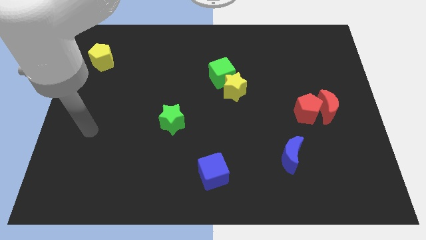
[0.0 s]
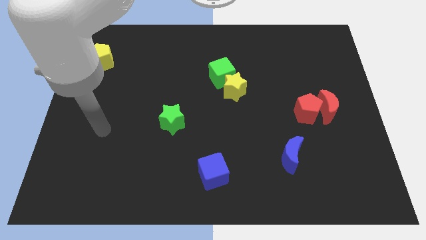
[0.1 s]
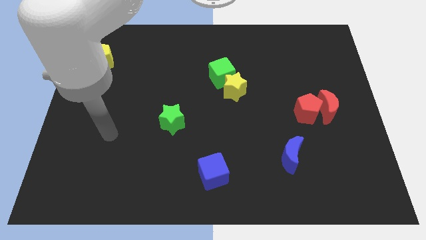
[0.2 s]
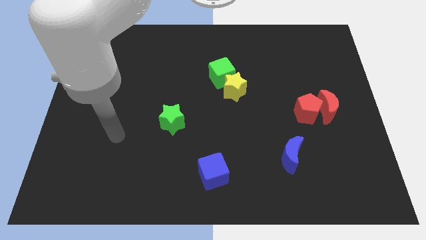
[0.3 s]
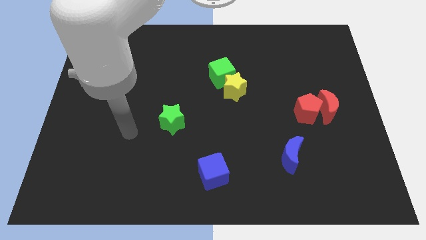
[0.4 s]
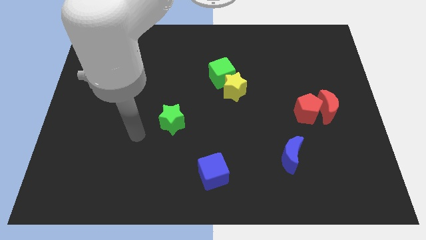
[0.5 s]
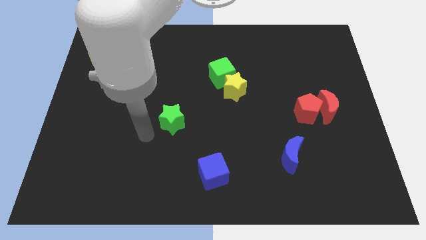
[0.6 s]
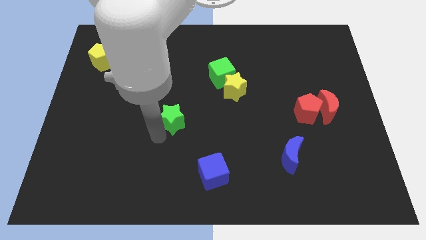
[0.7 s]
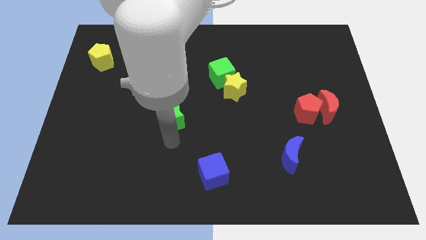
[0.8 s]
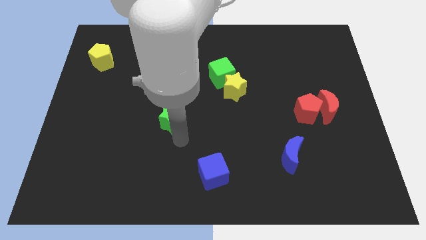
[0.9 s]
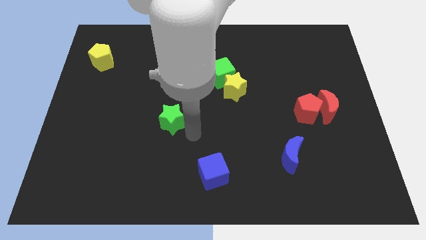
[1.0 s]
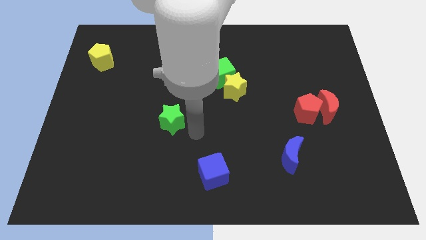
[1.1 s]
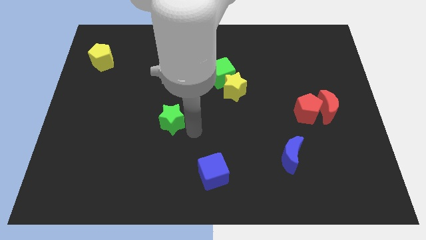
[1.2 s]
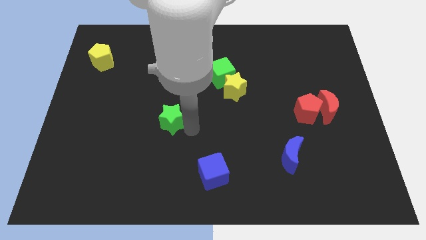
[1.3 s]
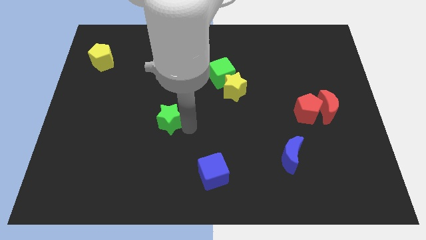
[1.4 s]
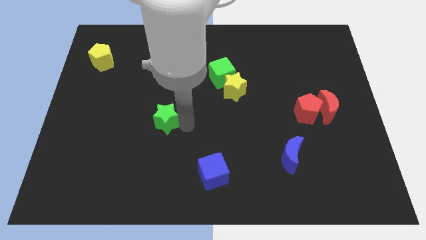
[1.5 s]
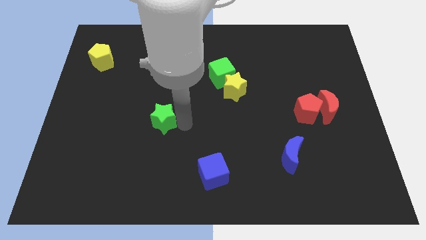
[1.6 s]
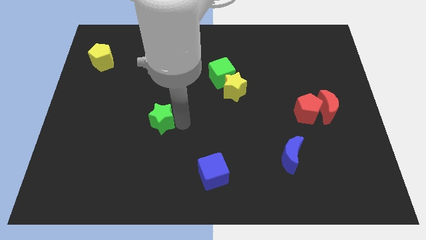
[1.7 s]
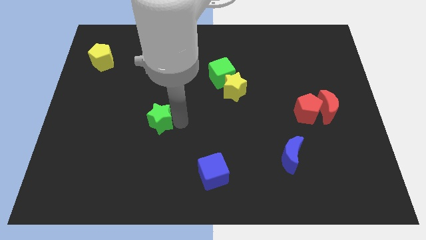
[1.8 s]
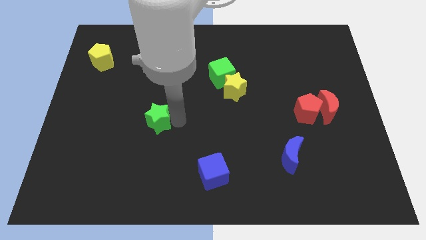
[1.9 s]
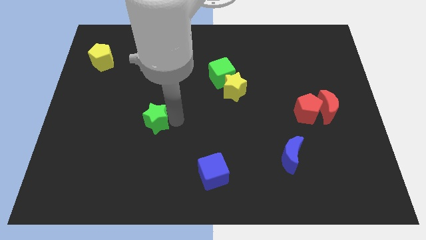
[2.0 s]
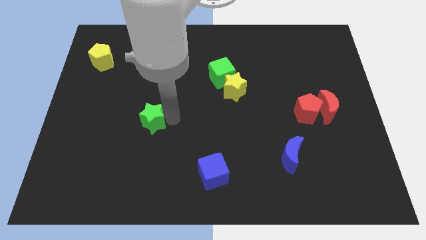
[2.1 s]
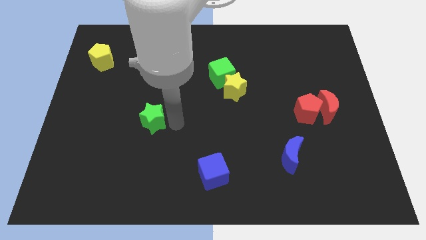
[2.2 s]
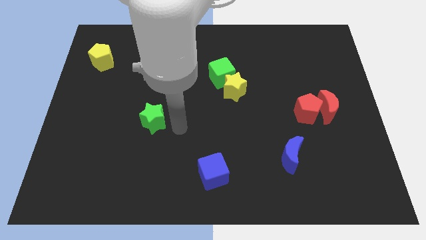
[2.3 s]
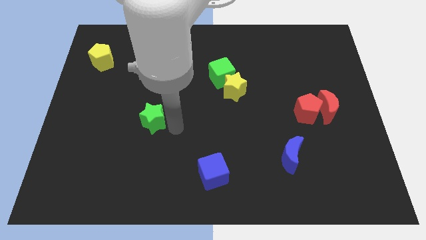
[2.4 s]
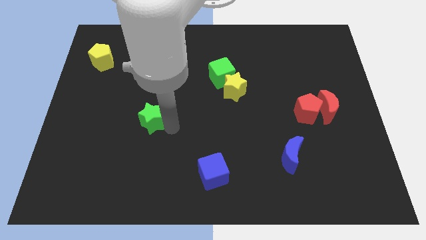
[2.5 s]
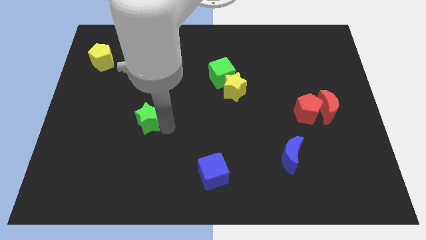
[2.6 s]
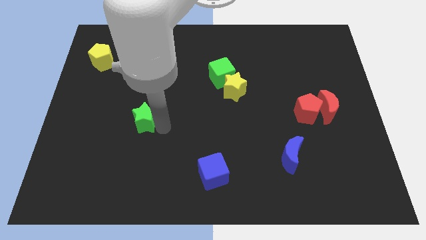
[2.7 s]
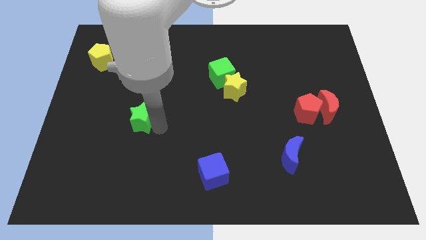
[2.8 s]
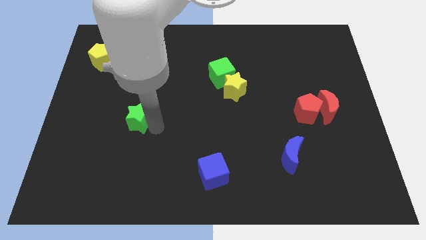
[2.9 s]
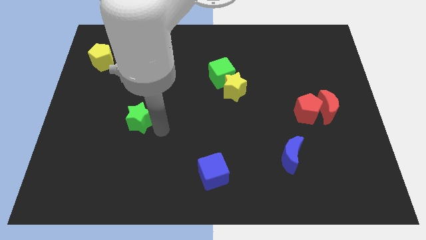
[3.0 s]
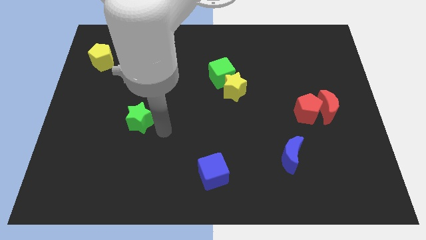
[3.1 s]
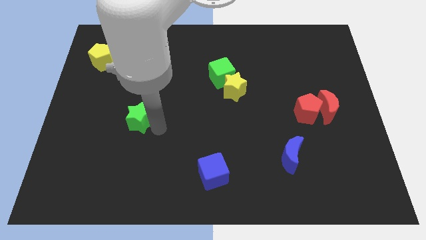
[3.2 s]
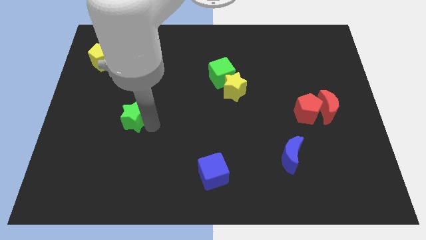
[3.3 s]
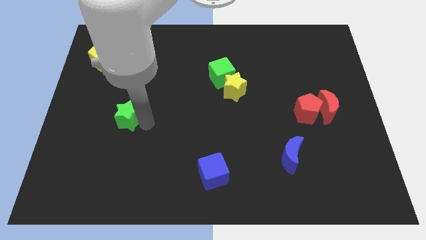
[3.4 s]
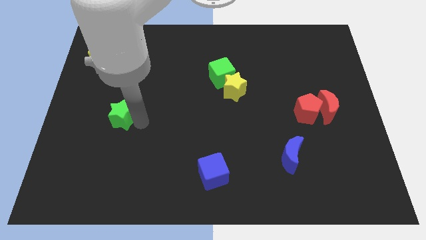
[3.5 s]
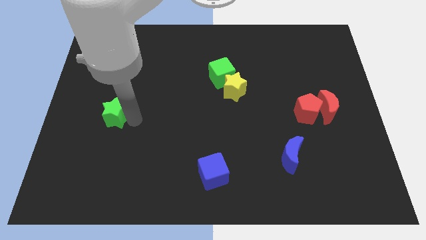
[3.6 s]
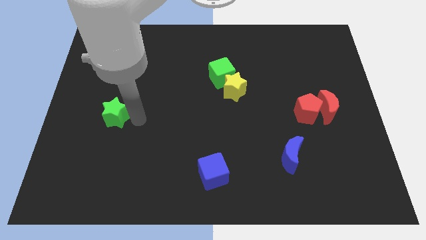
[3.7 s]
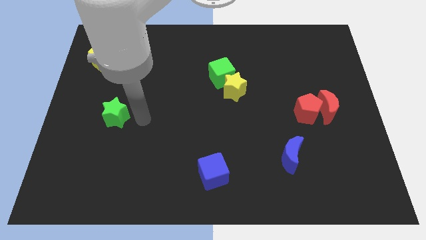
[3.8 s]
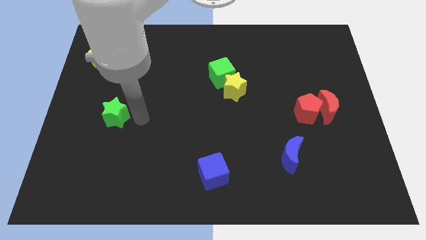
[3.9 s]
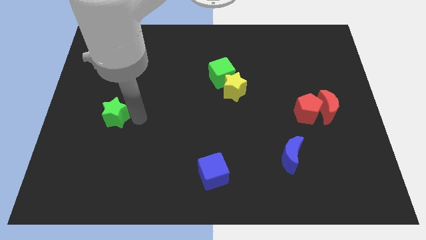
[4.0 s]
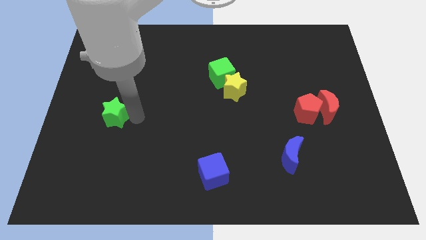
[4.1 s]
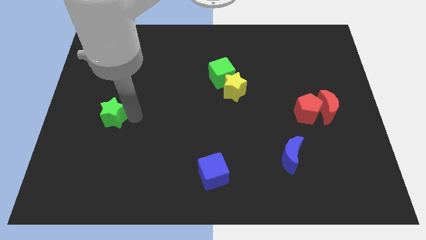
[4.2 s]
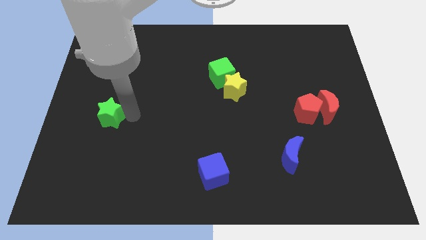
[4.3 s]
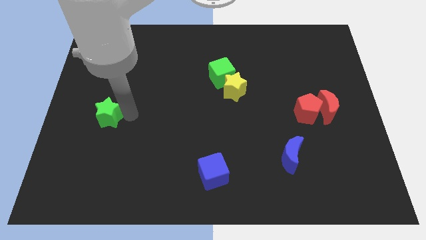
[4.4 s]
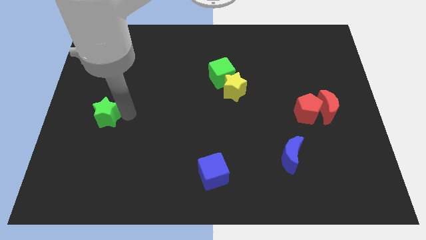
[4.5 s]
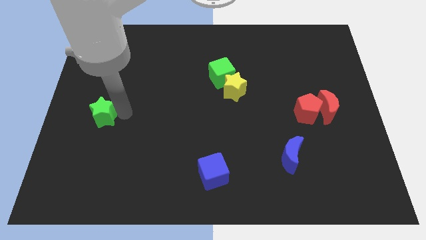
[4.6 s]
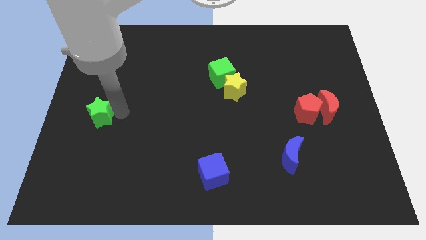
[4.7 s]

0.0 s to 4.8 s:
move the green star to the left side of the board

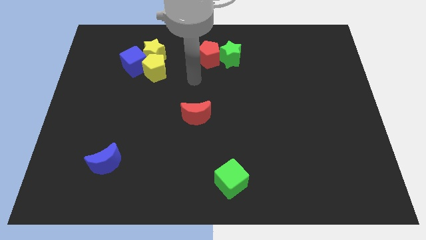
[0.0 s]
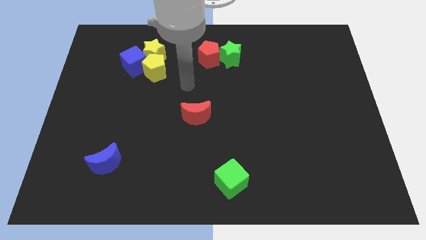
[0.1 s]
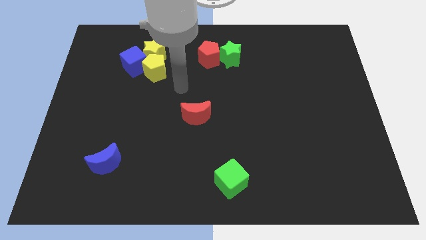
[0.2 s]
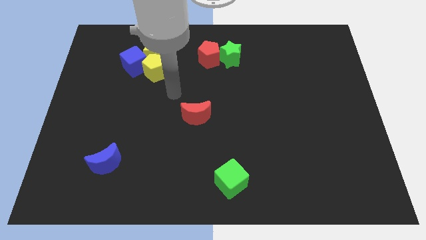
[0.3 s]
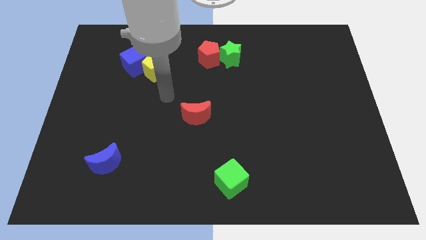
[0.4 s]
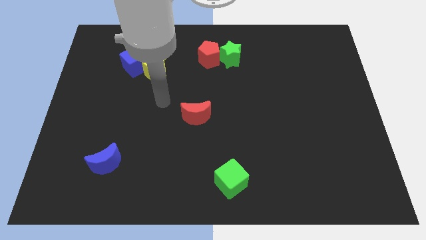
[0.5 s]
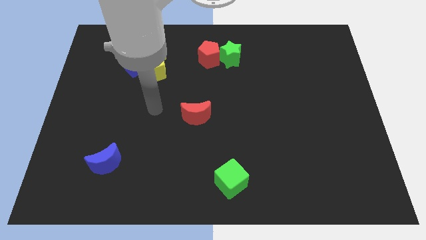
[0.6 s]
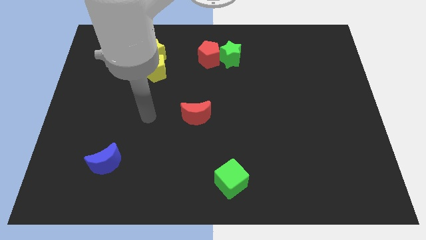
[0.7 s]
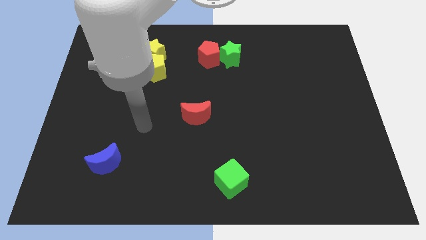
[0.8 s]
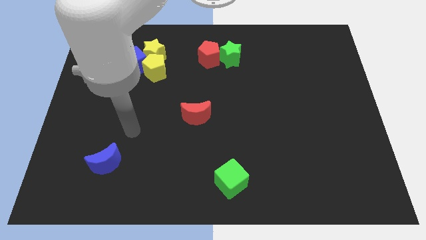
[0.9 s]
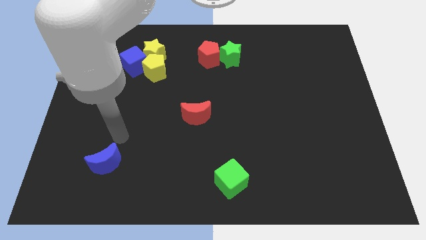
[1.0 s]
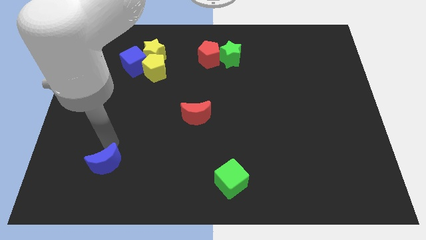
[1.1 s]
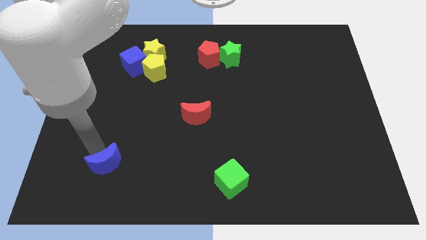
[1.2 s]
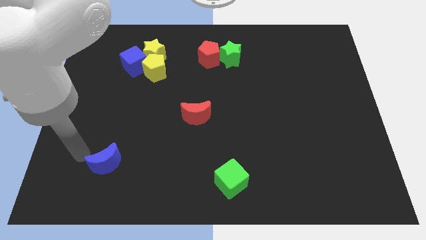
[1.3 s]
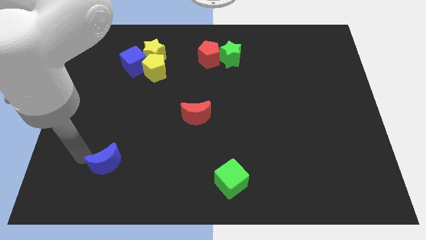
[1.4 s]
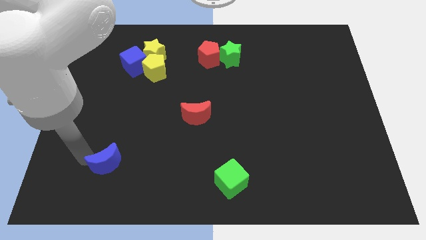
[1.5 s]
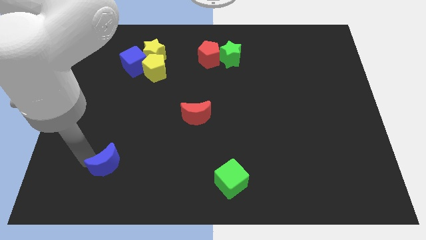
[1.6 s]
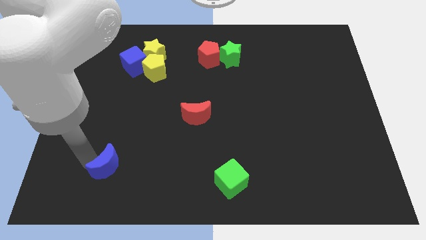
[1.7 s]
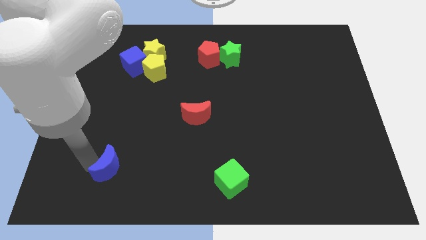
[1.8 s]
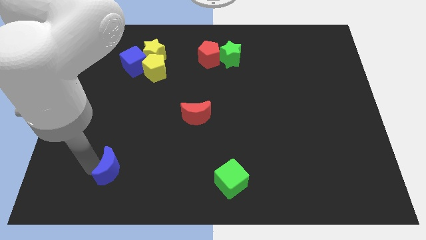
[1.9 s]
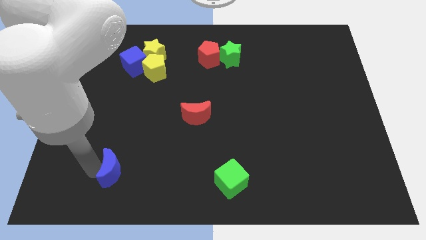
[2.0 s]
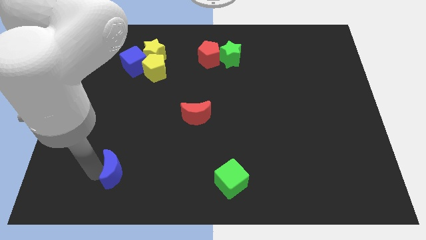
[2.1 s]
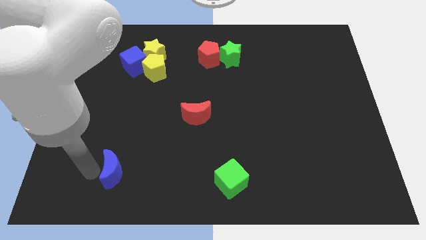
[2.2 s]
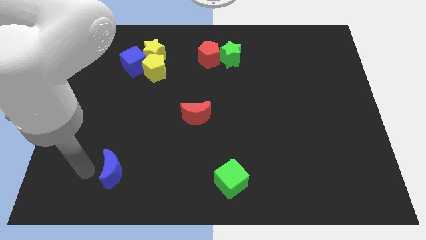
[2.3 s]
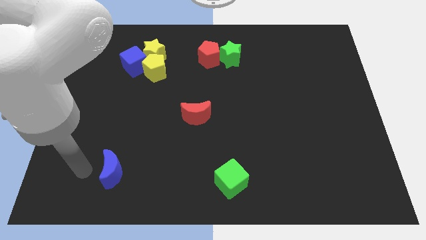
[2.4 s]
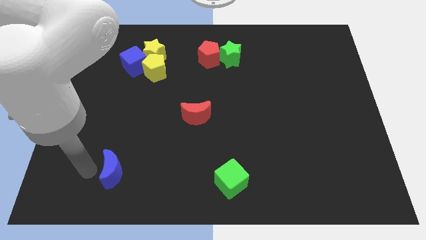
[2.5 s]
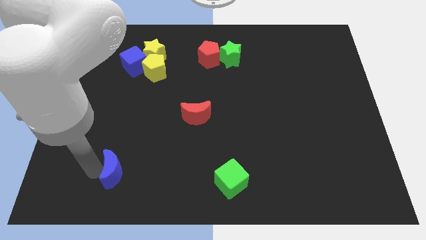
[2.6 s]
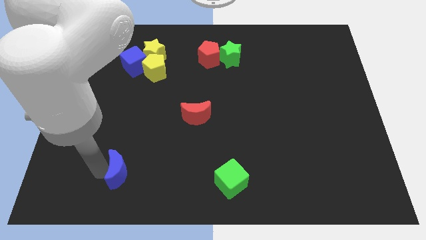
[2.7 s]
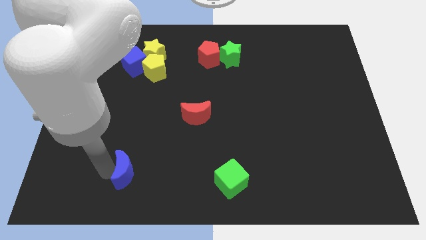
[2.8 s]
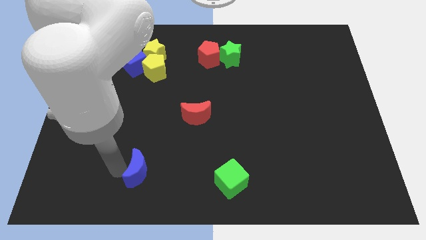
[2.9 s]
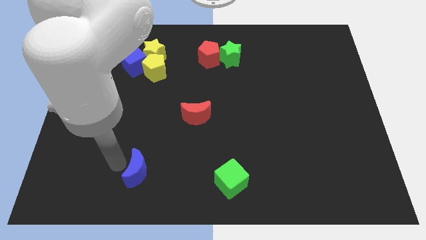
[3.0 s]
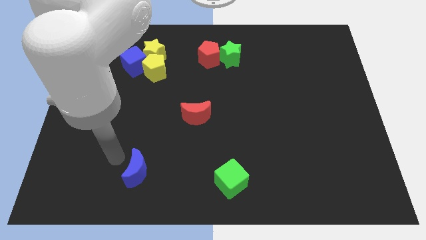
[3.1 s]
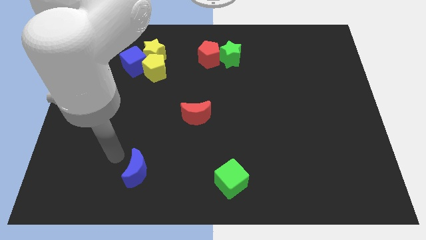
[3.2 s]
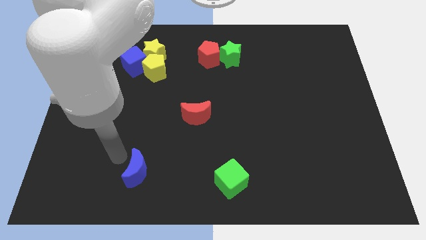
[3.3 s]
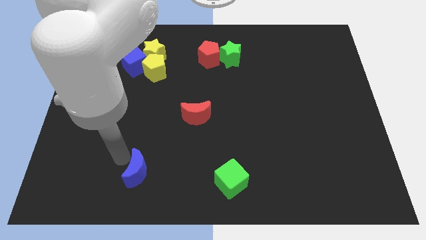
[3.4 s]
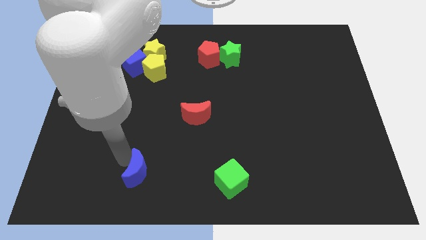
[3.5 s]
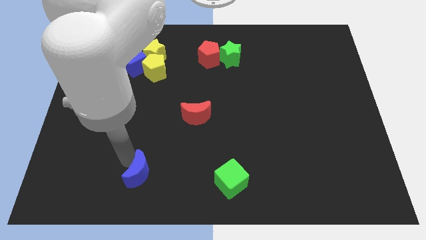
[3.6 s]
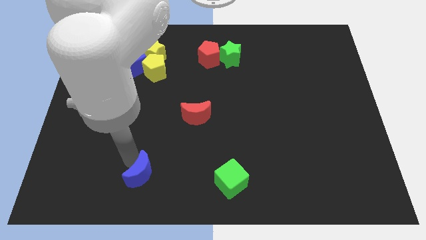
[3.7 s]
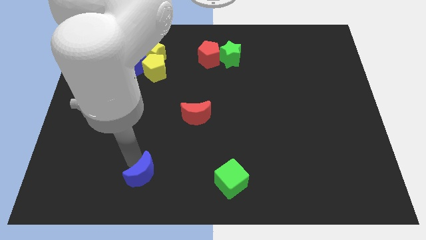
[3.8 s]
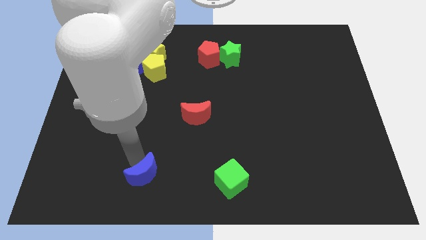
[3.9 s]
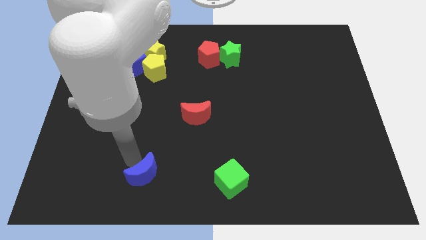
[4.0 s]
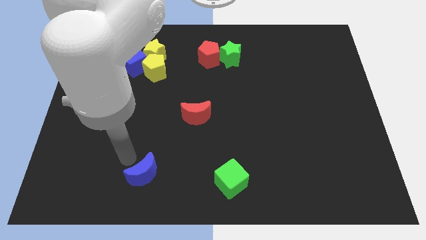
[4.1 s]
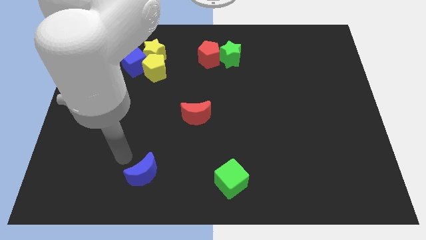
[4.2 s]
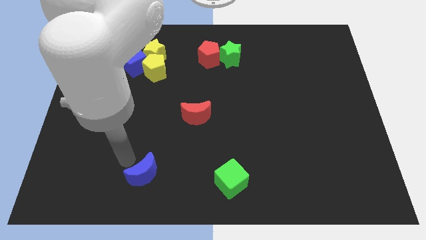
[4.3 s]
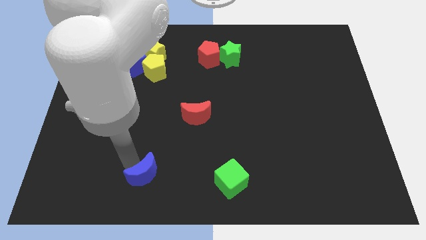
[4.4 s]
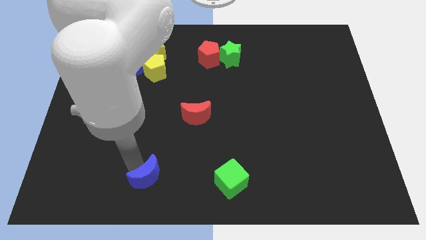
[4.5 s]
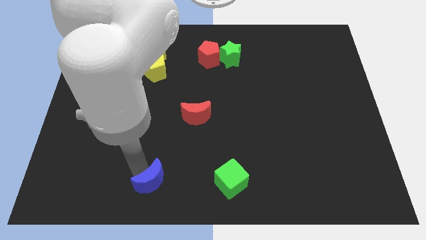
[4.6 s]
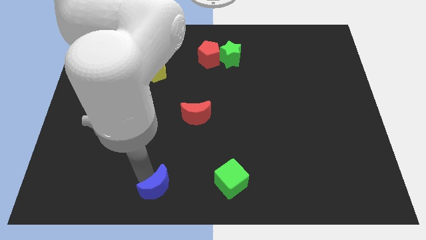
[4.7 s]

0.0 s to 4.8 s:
put the blue moon to the bottom
